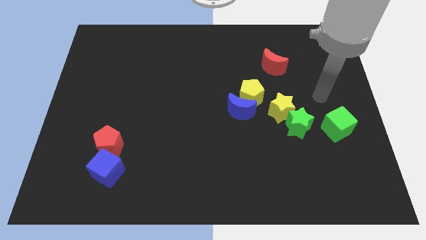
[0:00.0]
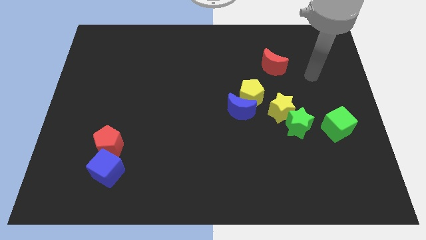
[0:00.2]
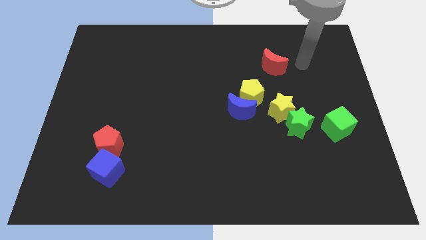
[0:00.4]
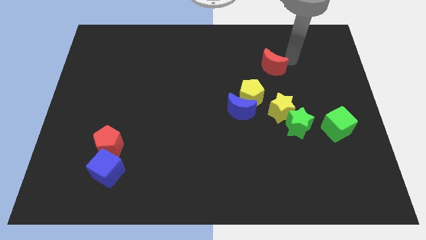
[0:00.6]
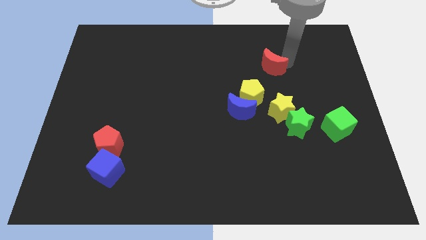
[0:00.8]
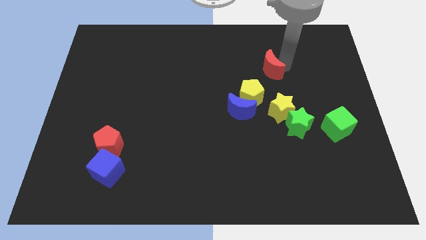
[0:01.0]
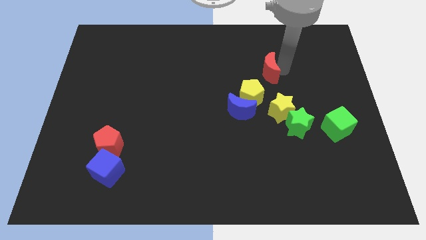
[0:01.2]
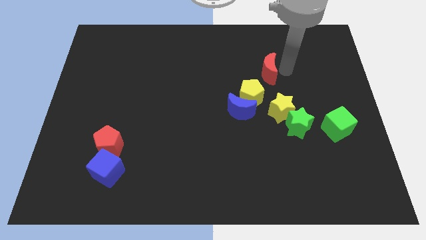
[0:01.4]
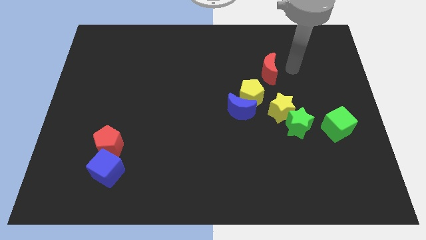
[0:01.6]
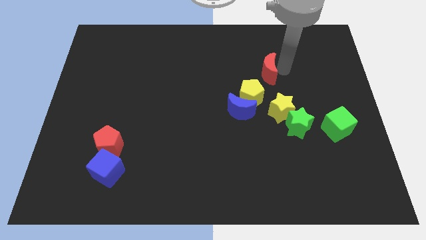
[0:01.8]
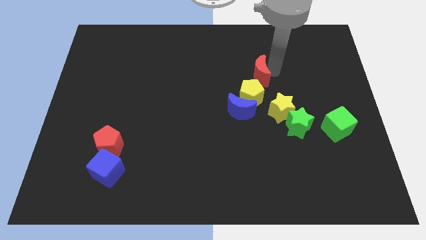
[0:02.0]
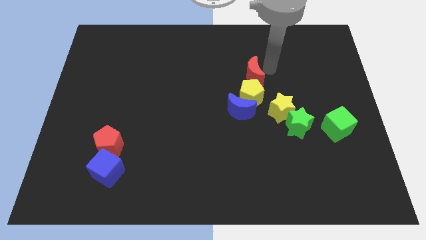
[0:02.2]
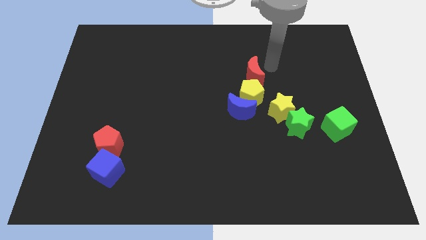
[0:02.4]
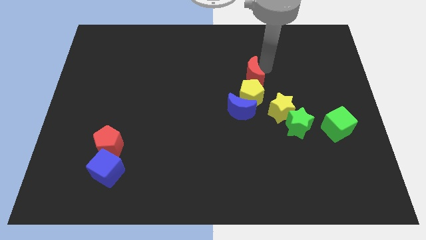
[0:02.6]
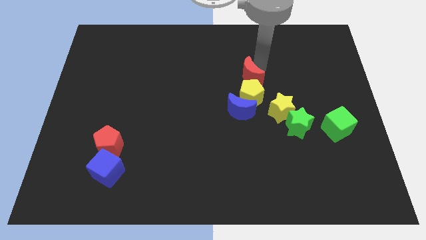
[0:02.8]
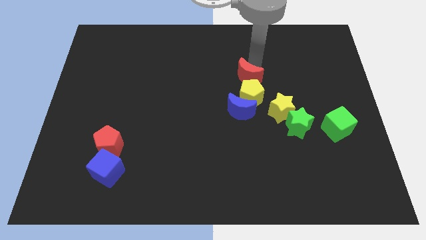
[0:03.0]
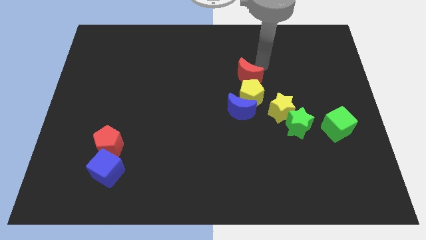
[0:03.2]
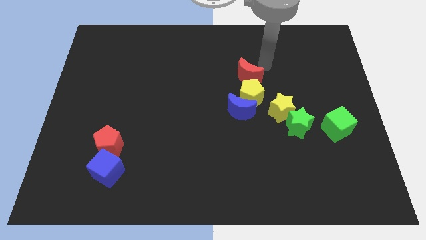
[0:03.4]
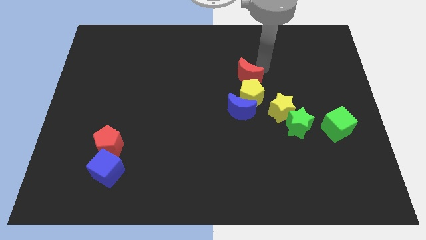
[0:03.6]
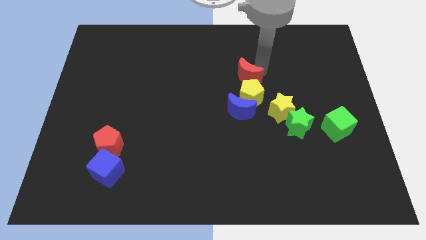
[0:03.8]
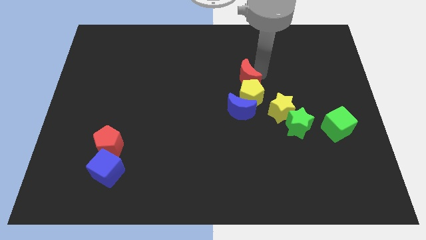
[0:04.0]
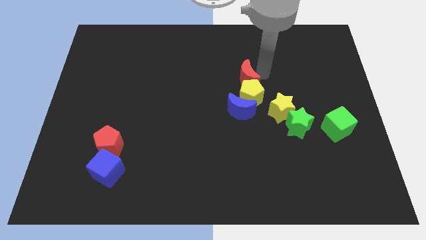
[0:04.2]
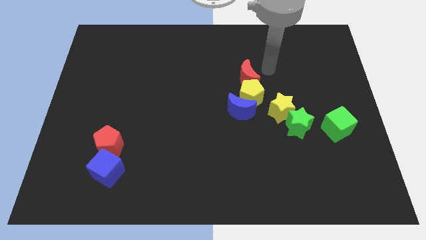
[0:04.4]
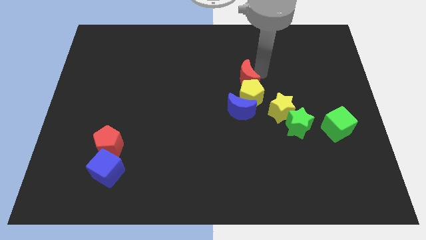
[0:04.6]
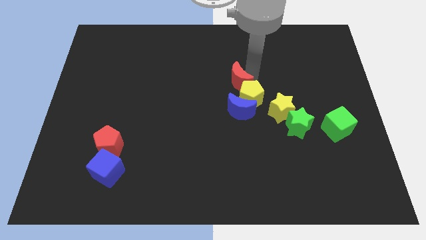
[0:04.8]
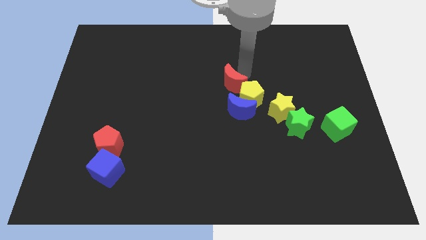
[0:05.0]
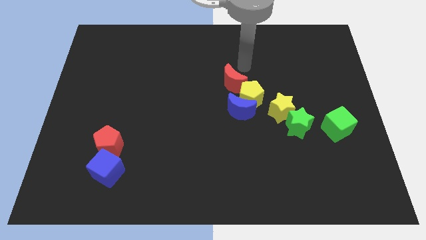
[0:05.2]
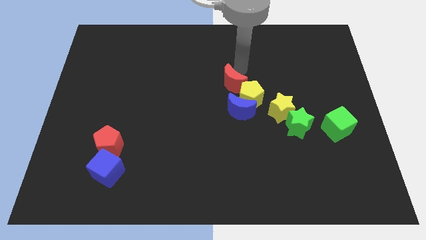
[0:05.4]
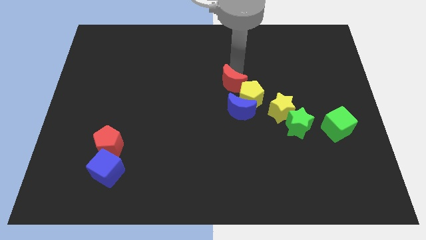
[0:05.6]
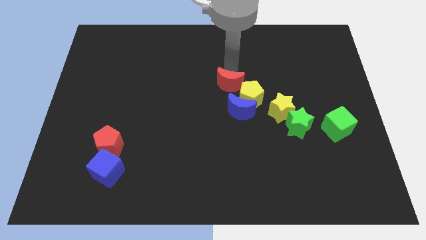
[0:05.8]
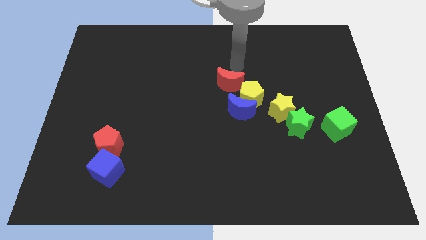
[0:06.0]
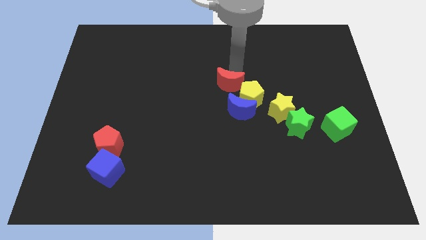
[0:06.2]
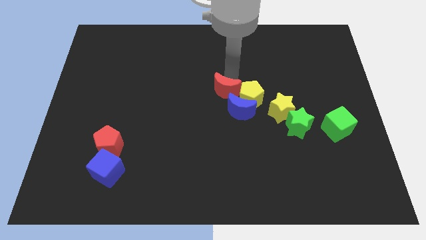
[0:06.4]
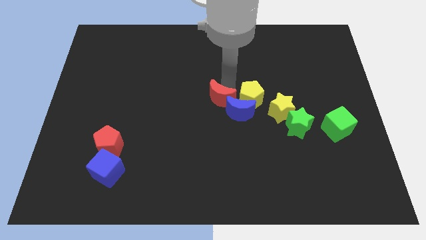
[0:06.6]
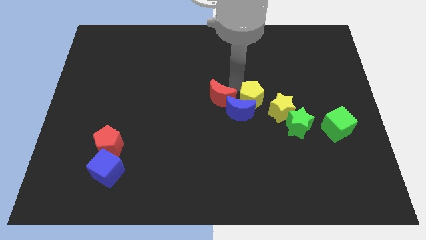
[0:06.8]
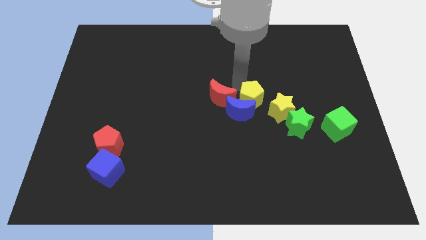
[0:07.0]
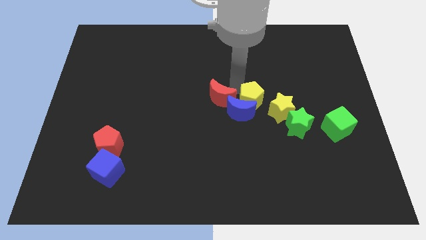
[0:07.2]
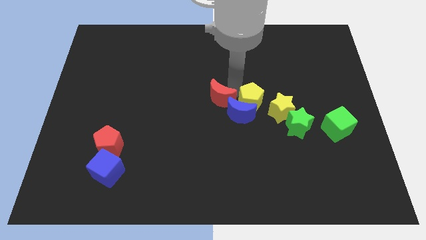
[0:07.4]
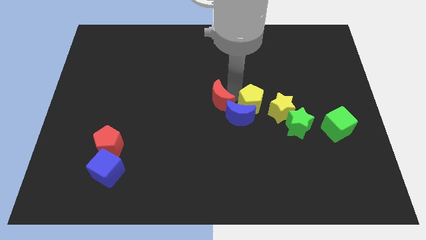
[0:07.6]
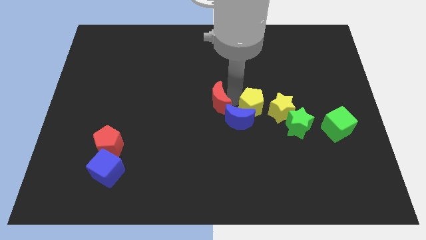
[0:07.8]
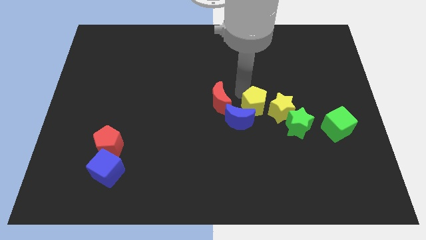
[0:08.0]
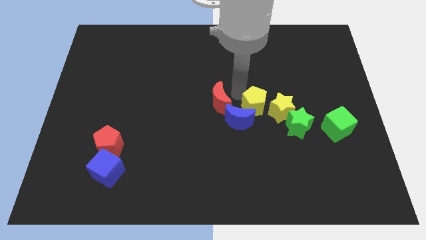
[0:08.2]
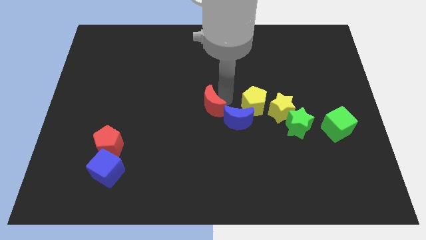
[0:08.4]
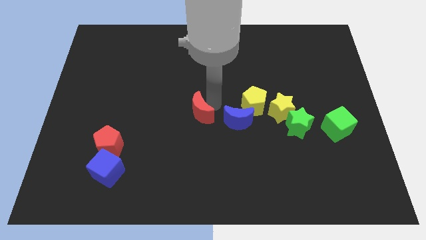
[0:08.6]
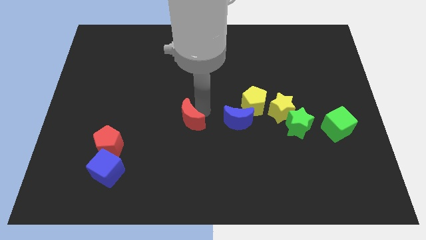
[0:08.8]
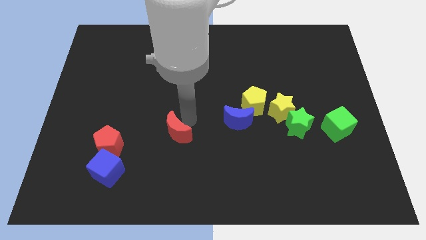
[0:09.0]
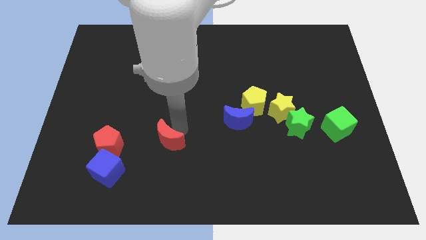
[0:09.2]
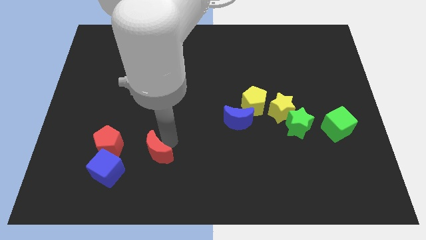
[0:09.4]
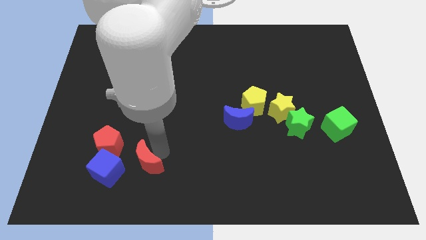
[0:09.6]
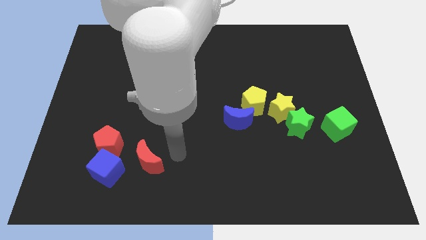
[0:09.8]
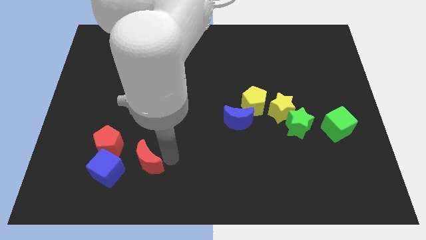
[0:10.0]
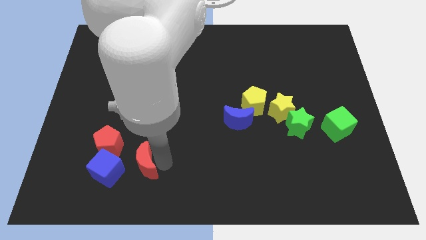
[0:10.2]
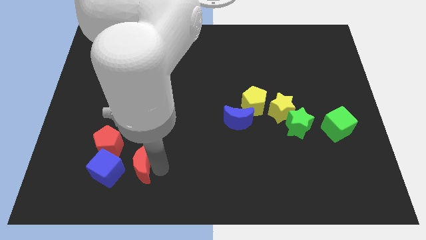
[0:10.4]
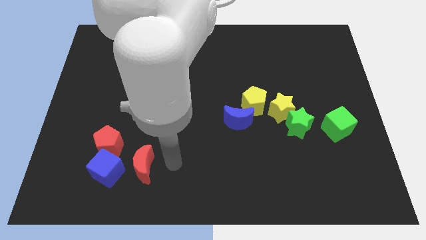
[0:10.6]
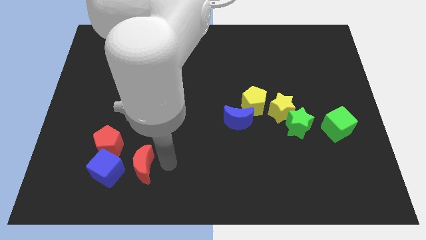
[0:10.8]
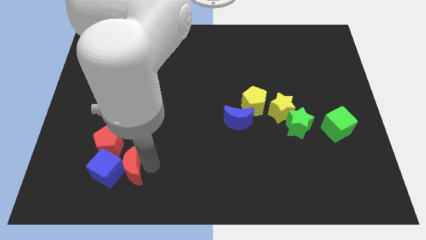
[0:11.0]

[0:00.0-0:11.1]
slide the red moon to the blue cube

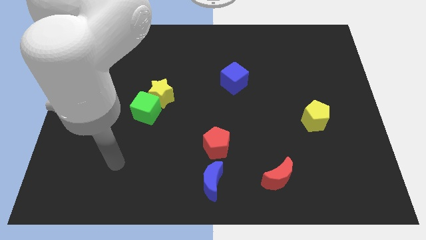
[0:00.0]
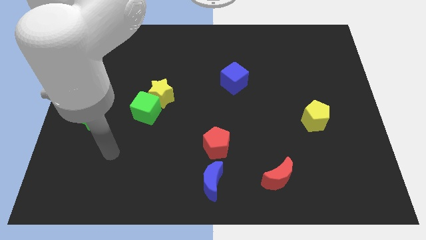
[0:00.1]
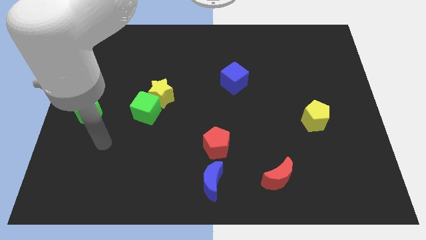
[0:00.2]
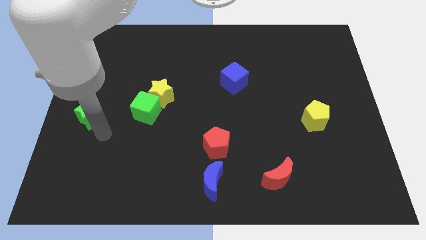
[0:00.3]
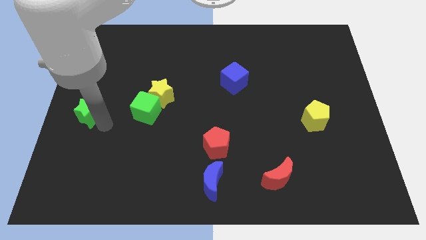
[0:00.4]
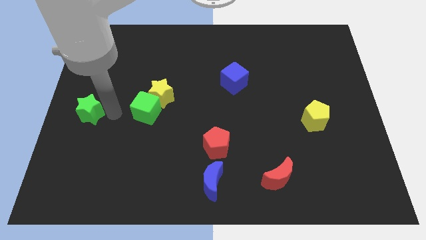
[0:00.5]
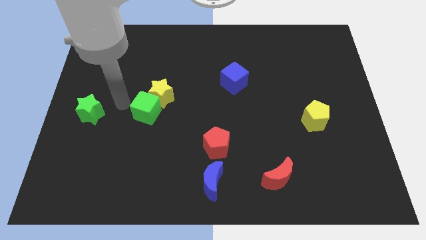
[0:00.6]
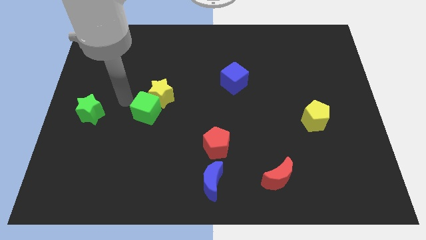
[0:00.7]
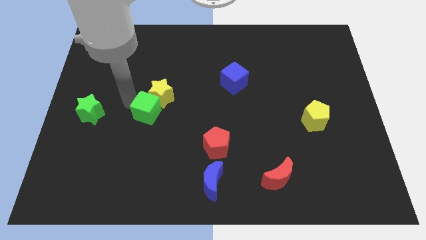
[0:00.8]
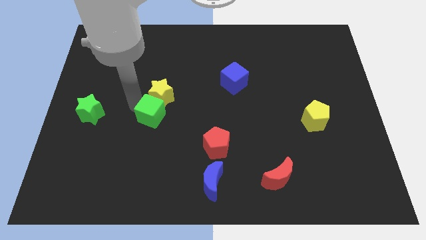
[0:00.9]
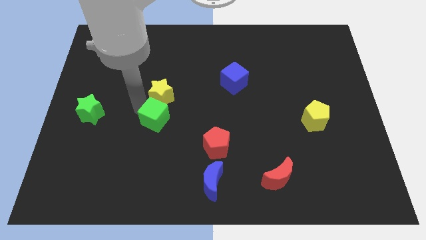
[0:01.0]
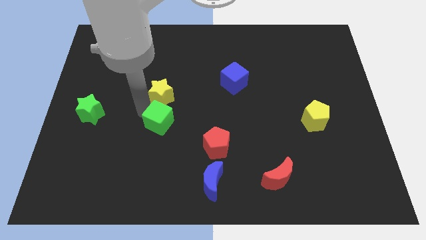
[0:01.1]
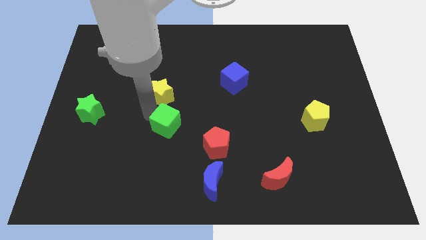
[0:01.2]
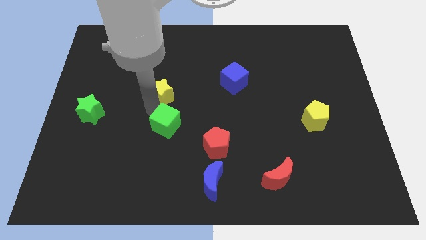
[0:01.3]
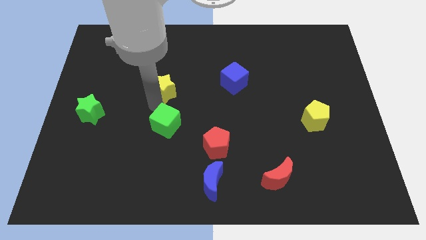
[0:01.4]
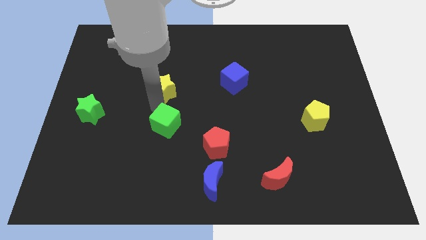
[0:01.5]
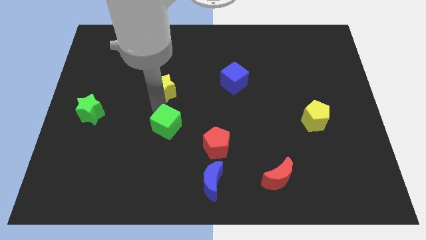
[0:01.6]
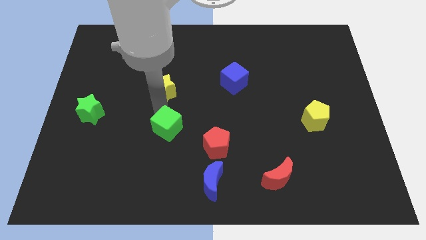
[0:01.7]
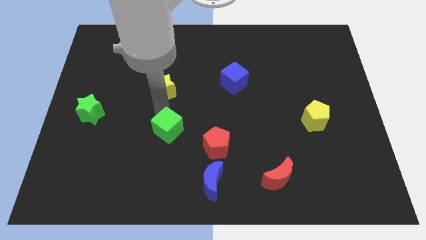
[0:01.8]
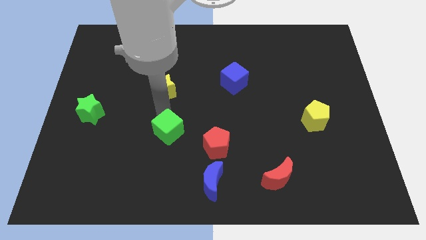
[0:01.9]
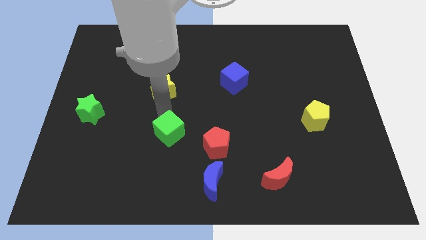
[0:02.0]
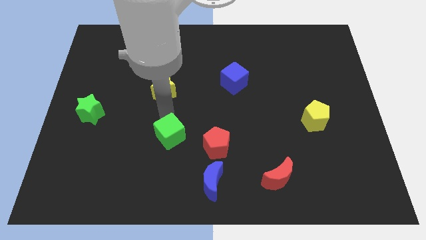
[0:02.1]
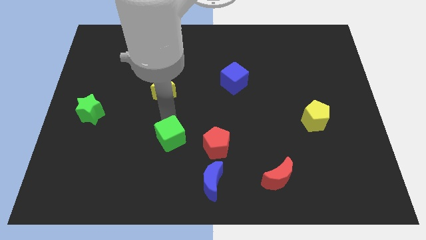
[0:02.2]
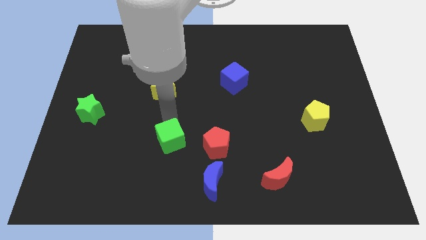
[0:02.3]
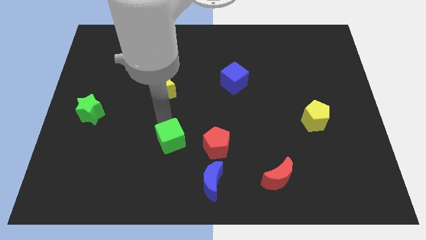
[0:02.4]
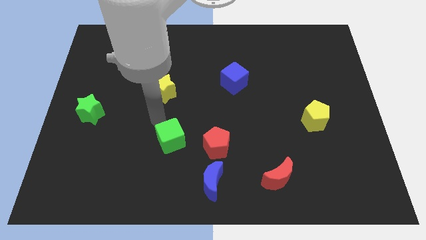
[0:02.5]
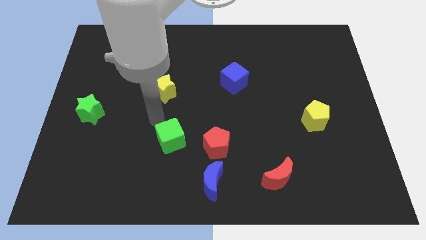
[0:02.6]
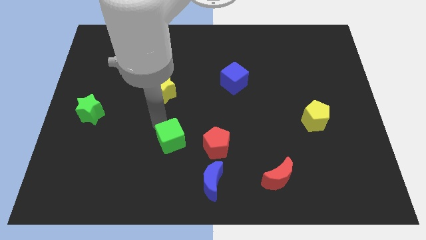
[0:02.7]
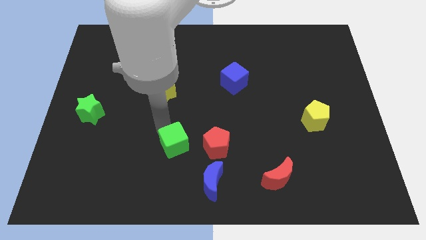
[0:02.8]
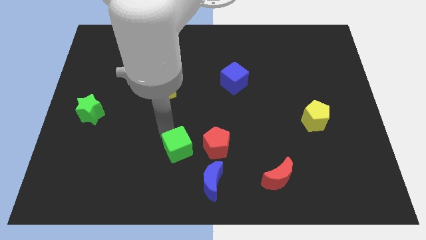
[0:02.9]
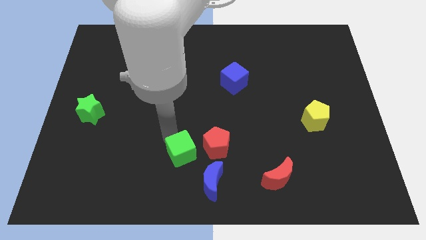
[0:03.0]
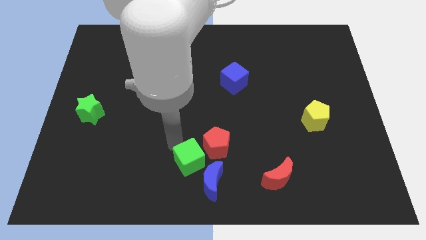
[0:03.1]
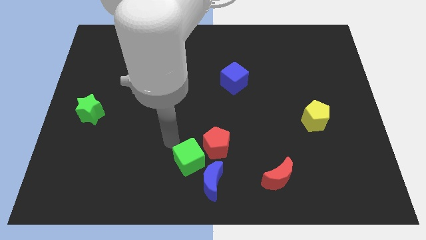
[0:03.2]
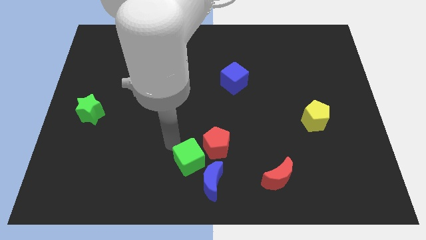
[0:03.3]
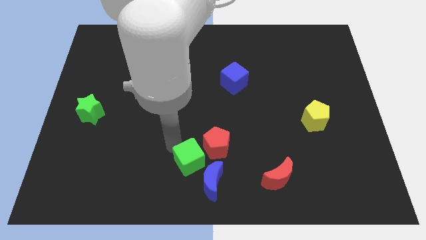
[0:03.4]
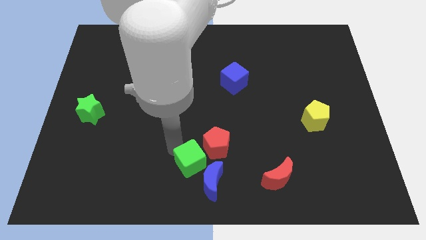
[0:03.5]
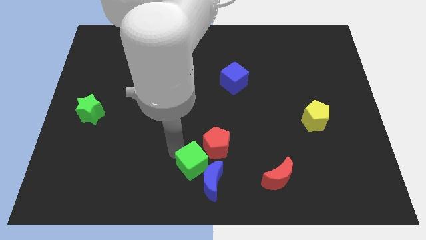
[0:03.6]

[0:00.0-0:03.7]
put the green cube towards the blue moon
